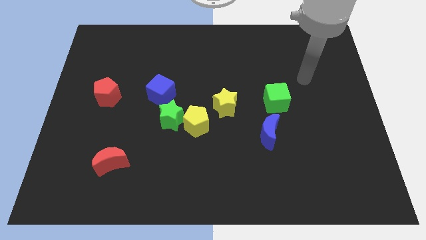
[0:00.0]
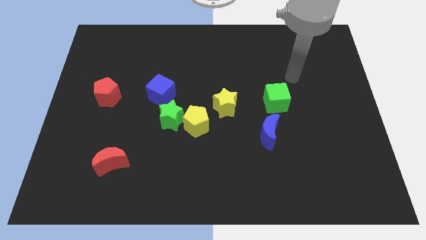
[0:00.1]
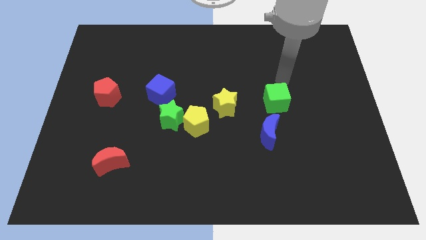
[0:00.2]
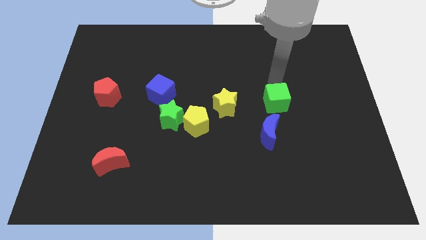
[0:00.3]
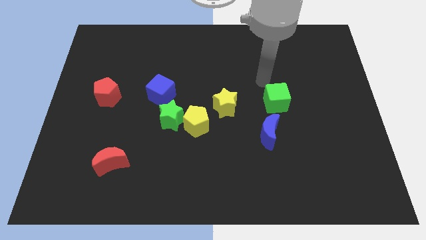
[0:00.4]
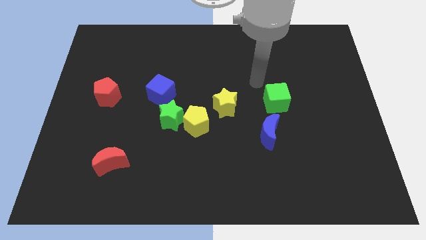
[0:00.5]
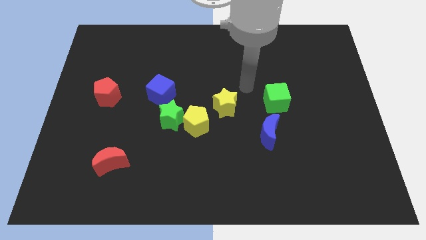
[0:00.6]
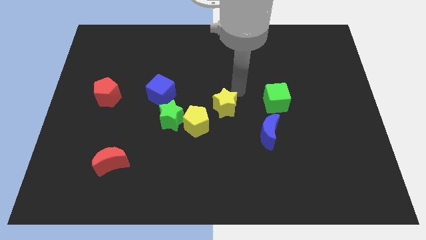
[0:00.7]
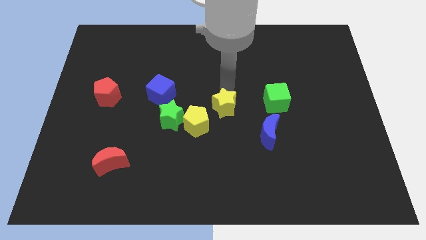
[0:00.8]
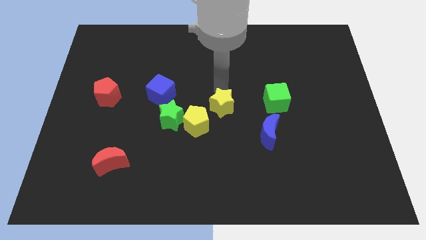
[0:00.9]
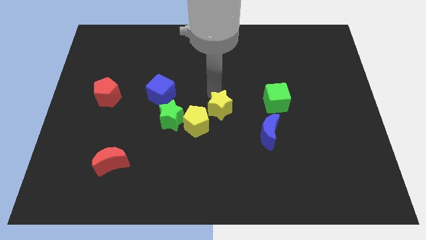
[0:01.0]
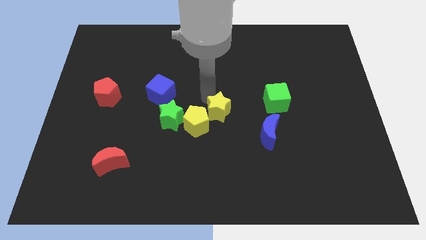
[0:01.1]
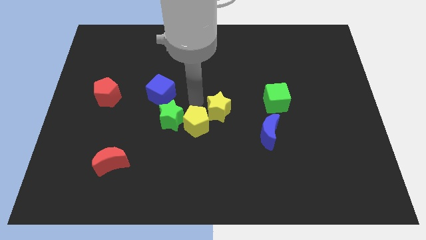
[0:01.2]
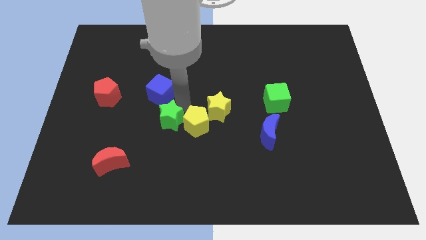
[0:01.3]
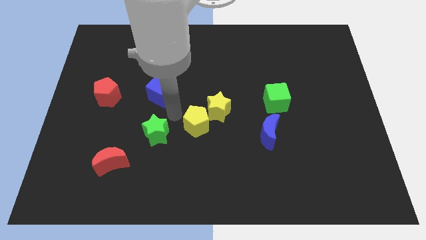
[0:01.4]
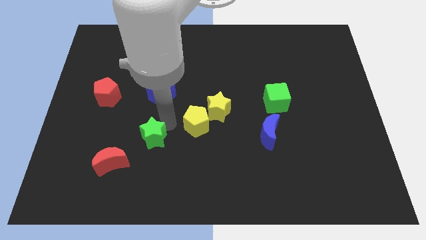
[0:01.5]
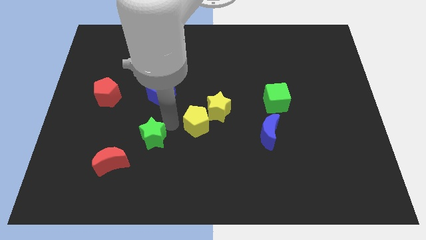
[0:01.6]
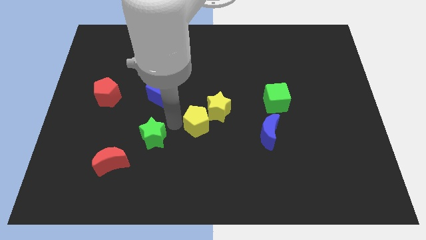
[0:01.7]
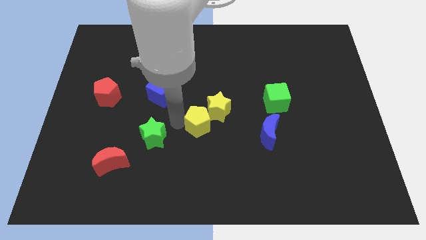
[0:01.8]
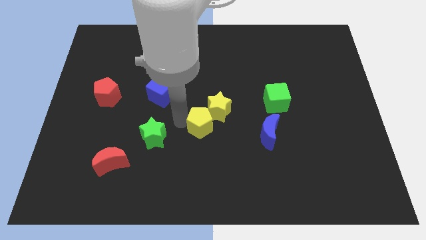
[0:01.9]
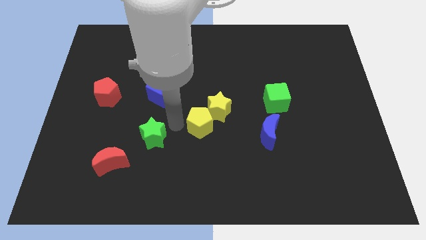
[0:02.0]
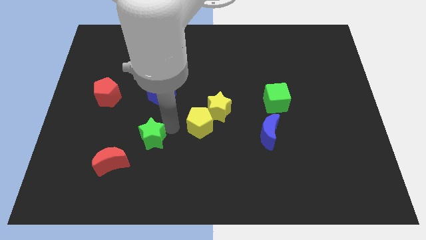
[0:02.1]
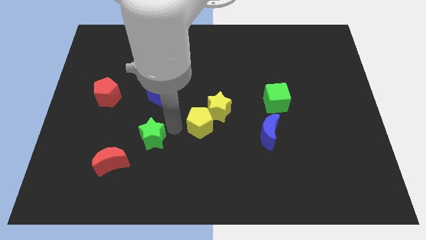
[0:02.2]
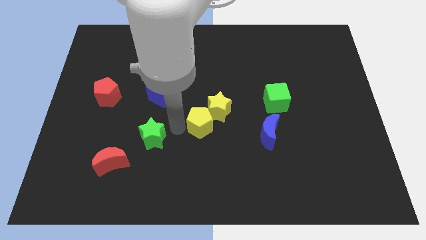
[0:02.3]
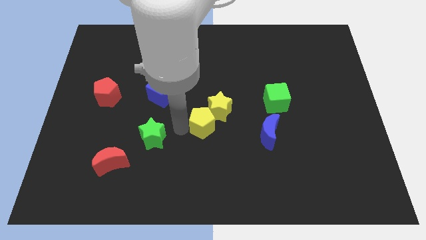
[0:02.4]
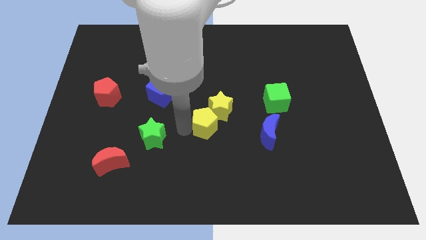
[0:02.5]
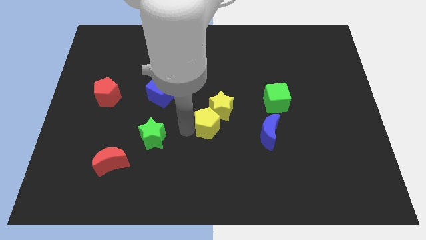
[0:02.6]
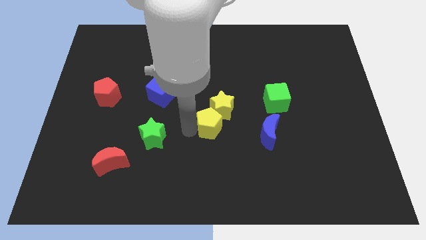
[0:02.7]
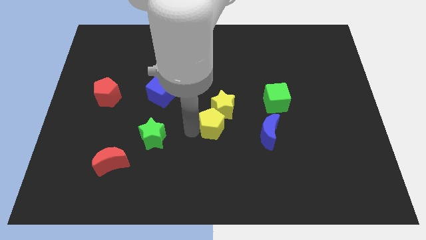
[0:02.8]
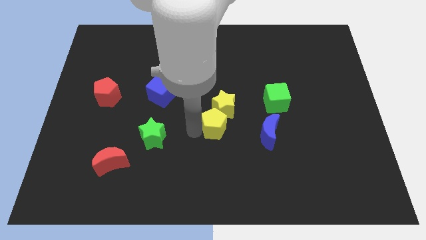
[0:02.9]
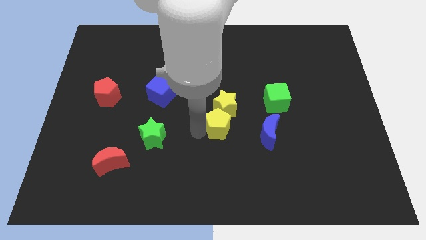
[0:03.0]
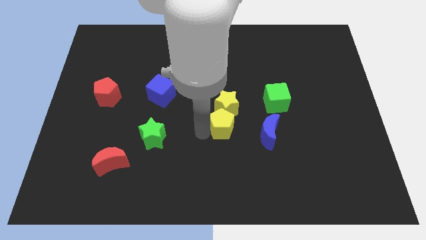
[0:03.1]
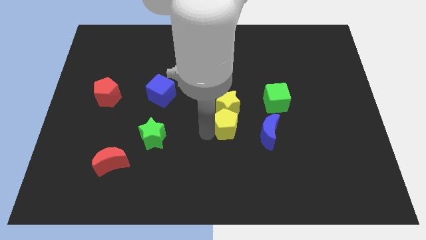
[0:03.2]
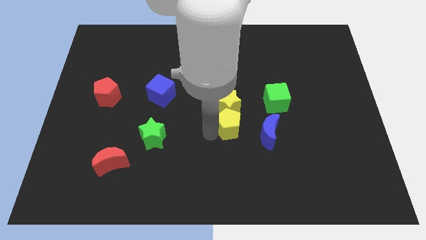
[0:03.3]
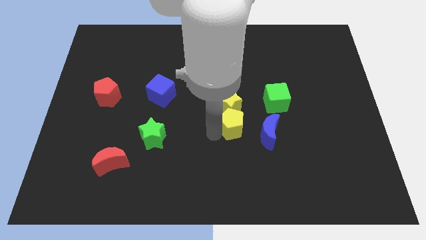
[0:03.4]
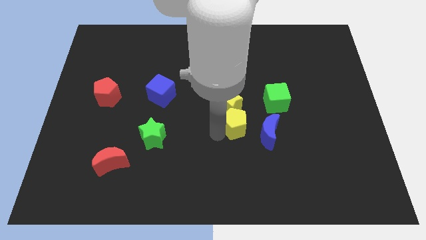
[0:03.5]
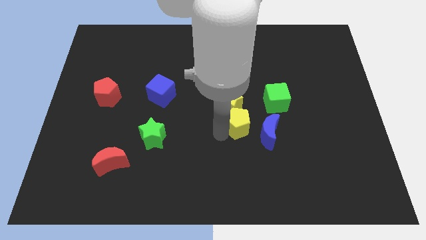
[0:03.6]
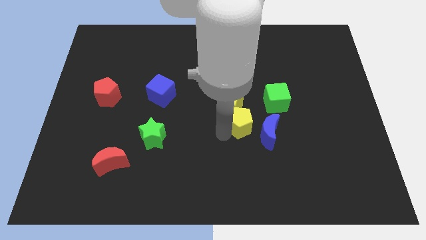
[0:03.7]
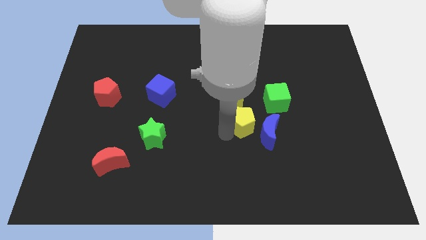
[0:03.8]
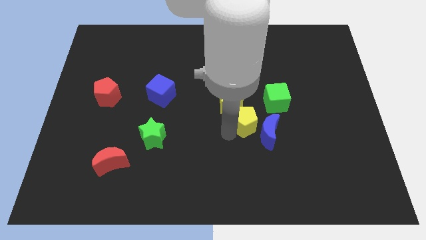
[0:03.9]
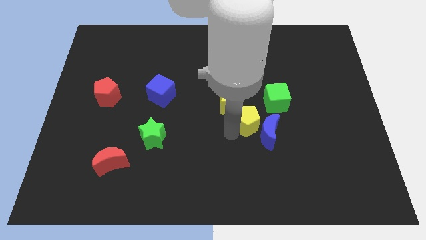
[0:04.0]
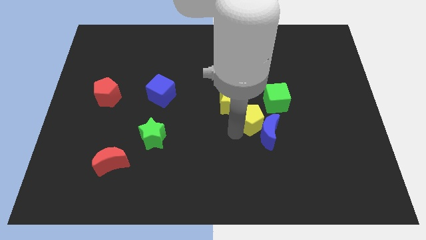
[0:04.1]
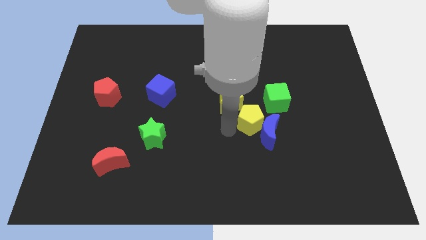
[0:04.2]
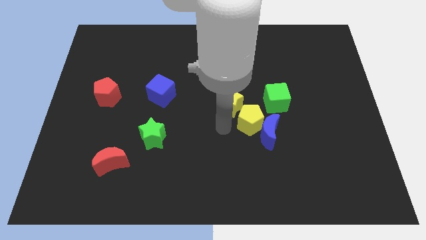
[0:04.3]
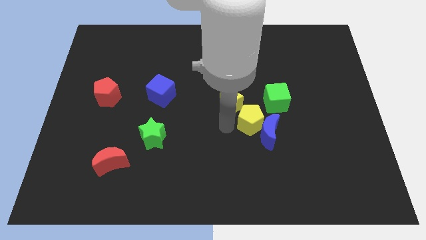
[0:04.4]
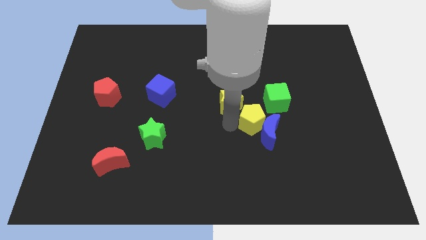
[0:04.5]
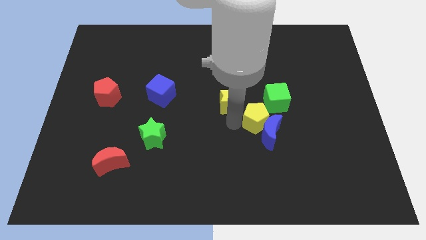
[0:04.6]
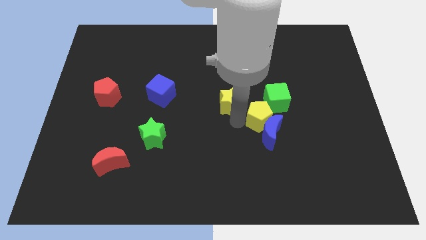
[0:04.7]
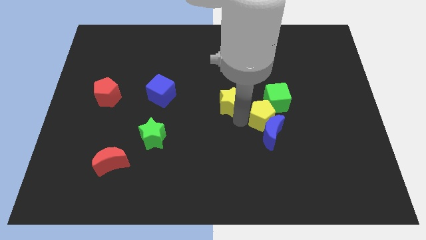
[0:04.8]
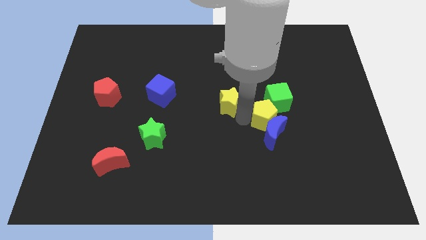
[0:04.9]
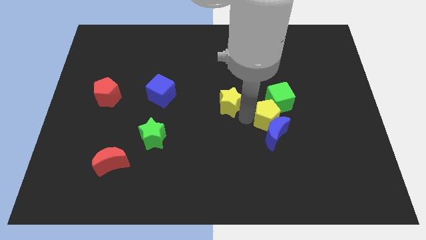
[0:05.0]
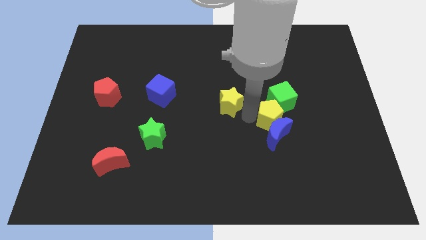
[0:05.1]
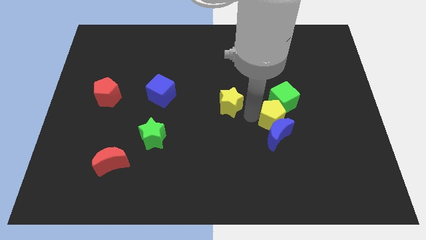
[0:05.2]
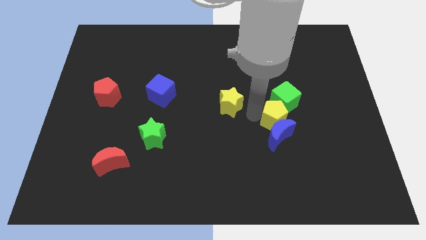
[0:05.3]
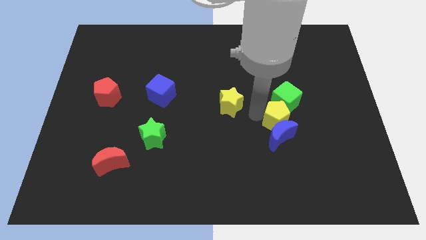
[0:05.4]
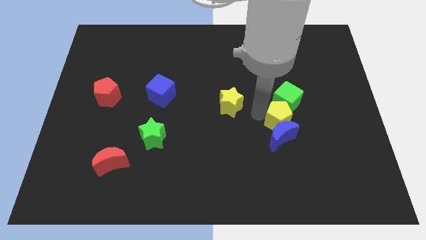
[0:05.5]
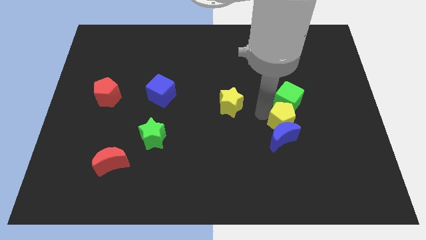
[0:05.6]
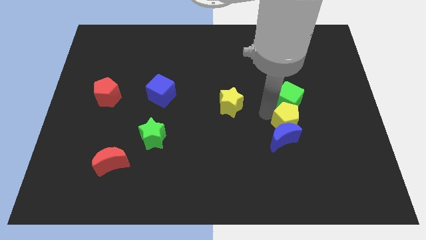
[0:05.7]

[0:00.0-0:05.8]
move the yellow pentagon to the right

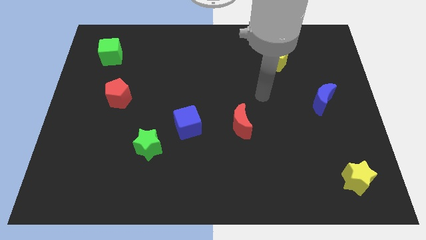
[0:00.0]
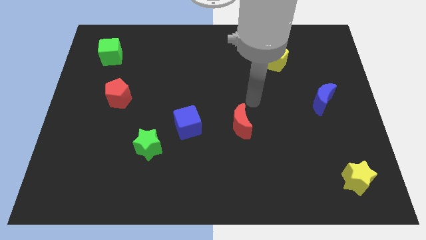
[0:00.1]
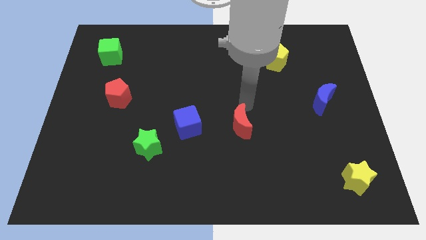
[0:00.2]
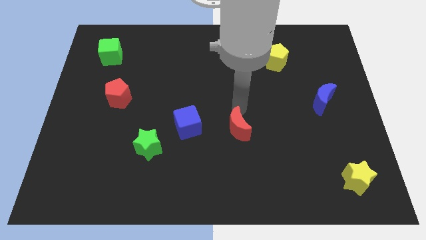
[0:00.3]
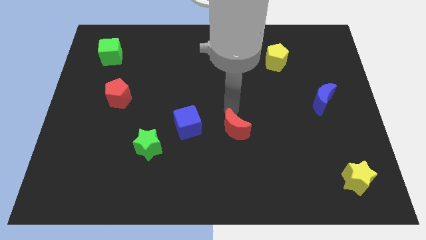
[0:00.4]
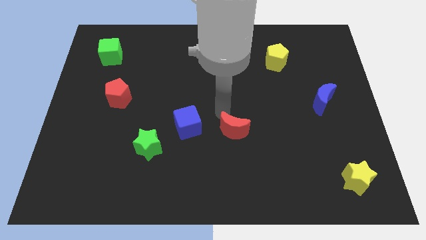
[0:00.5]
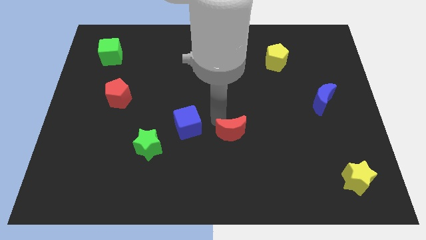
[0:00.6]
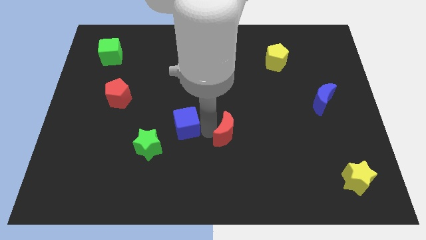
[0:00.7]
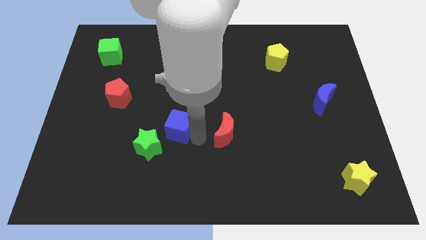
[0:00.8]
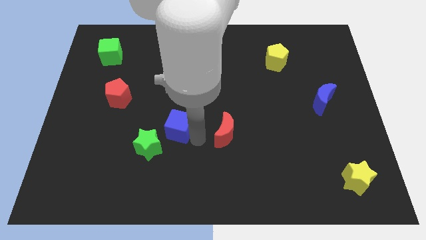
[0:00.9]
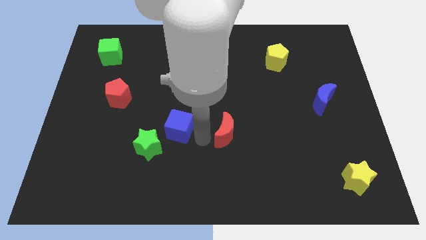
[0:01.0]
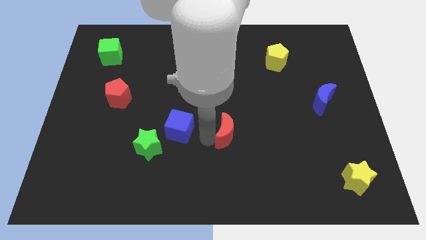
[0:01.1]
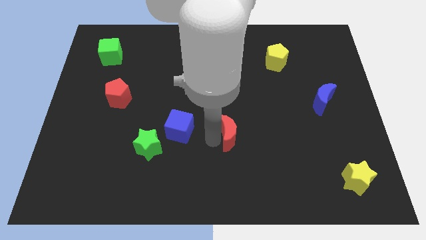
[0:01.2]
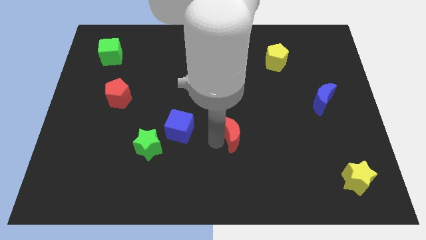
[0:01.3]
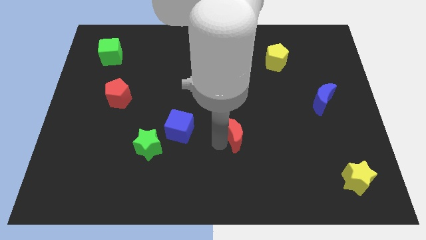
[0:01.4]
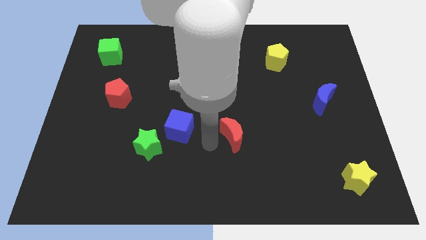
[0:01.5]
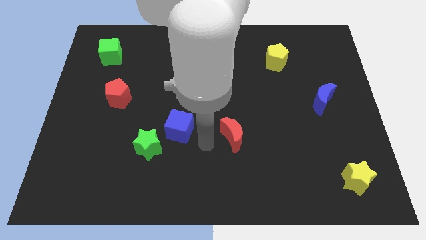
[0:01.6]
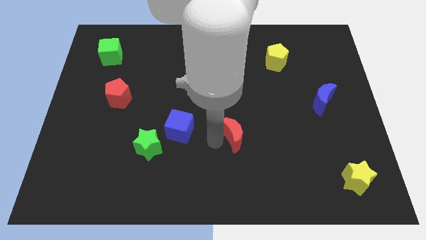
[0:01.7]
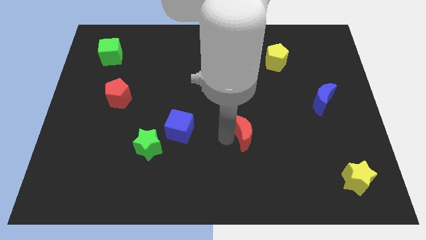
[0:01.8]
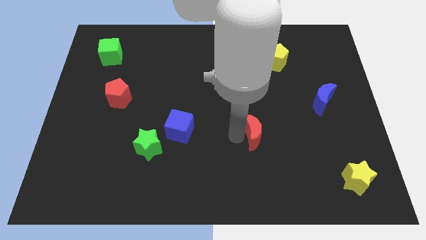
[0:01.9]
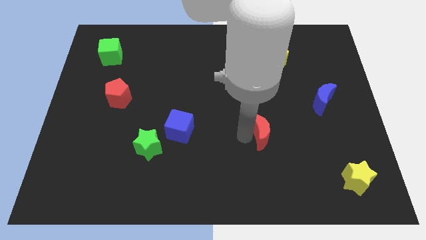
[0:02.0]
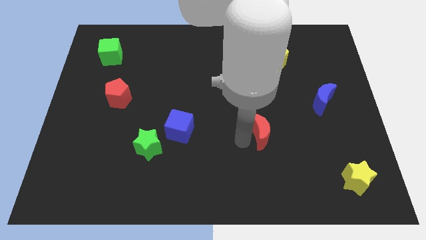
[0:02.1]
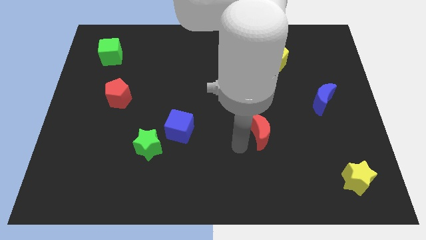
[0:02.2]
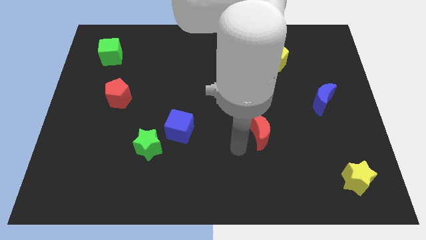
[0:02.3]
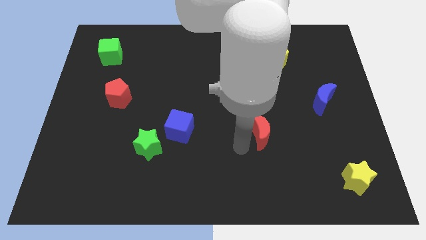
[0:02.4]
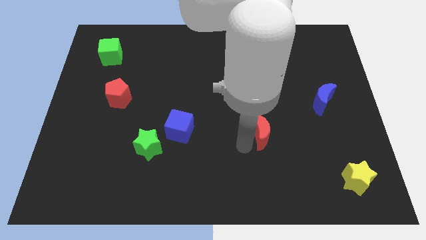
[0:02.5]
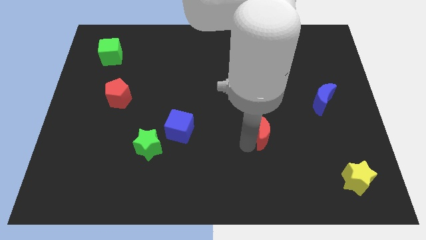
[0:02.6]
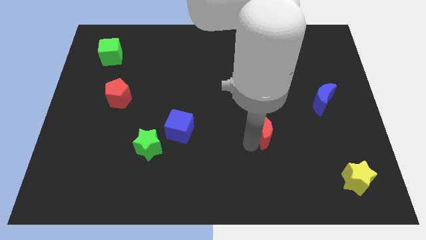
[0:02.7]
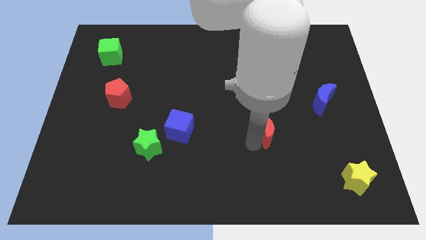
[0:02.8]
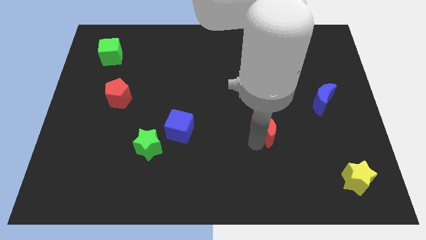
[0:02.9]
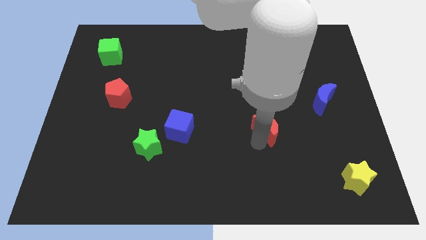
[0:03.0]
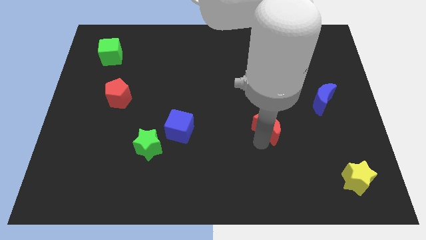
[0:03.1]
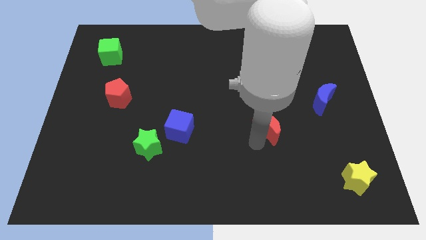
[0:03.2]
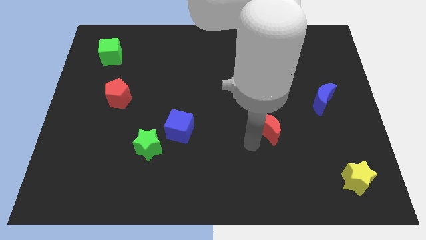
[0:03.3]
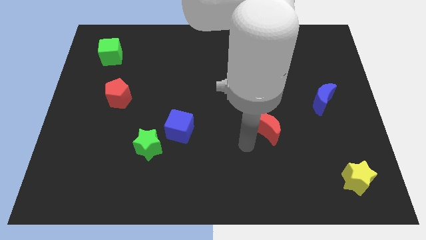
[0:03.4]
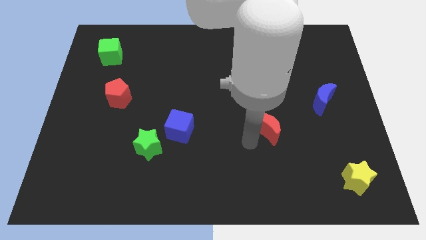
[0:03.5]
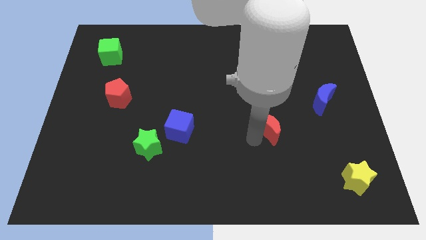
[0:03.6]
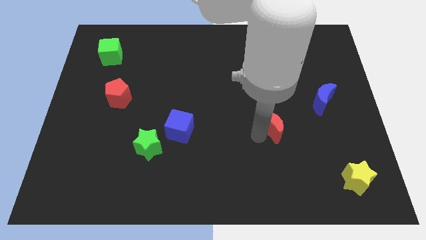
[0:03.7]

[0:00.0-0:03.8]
slide the red moon slightly right
